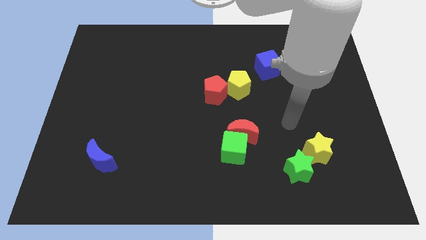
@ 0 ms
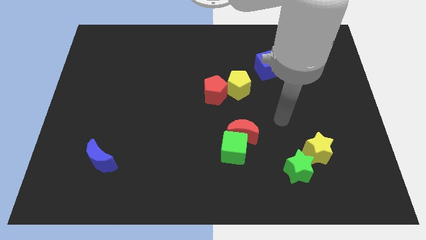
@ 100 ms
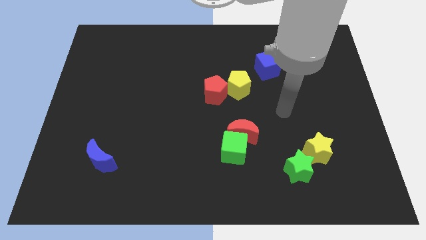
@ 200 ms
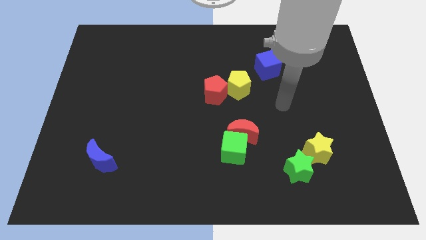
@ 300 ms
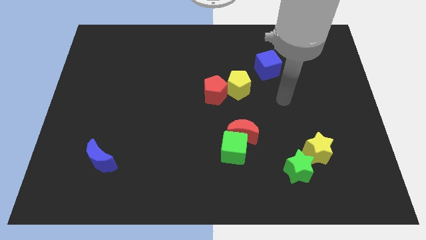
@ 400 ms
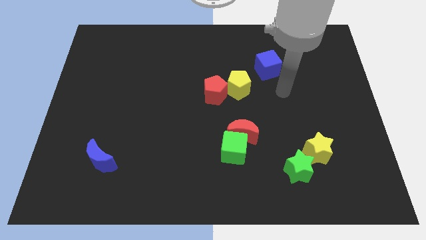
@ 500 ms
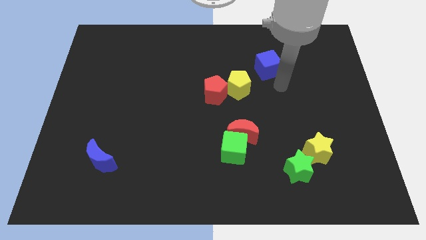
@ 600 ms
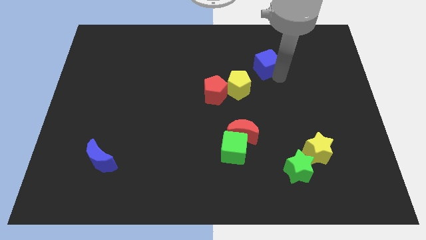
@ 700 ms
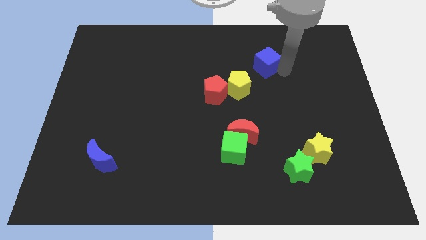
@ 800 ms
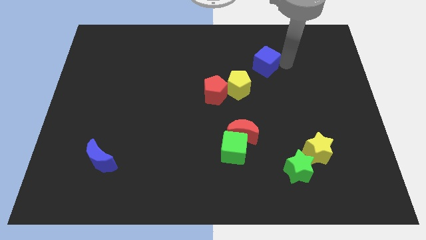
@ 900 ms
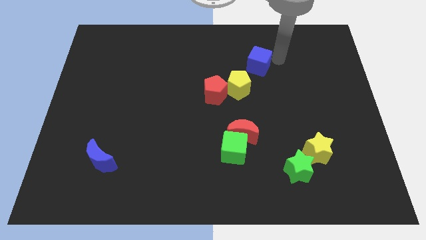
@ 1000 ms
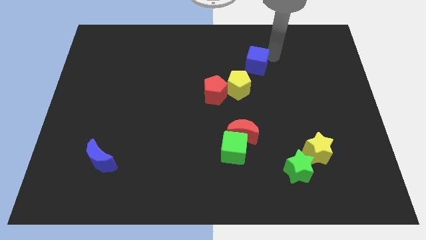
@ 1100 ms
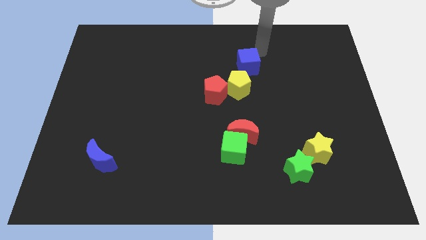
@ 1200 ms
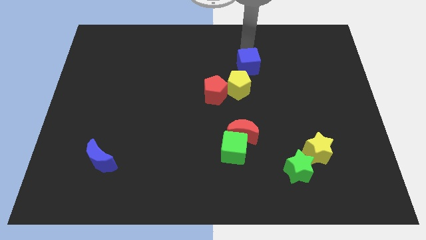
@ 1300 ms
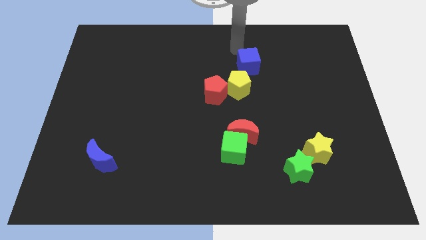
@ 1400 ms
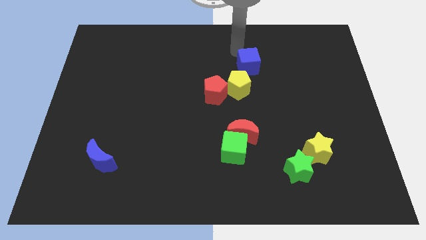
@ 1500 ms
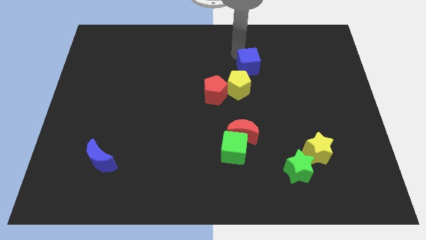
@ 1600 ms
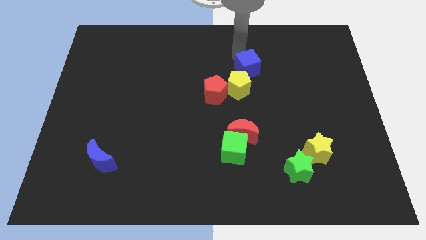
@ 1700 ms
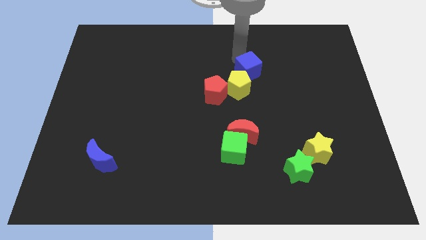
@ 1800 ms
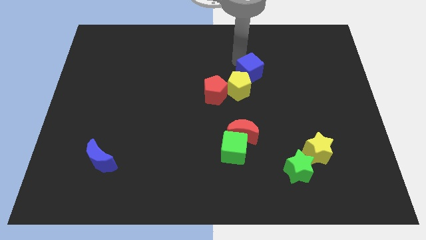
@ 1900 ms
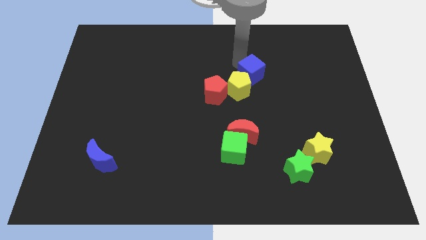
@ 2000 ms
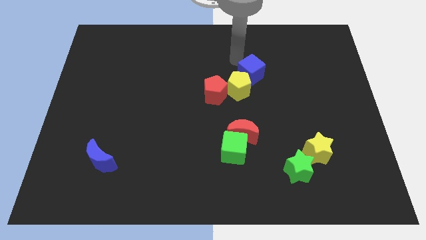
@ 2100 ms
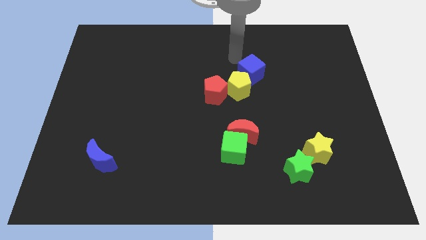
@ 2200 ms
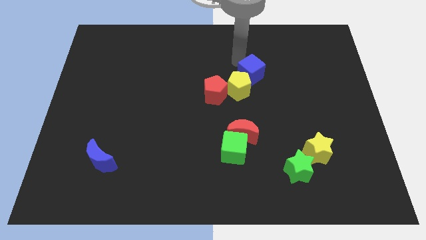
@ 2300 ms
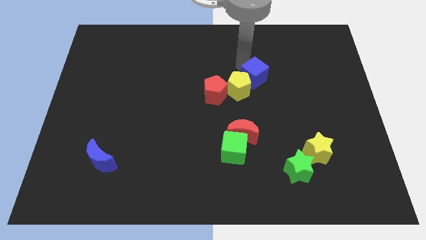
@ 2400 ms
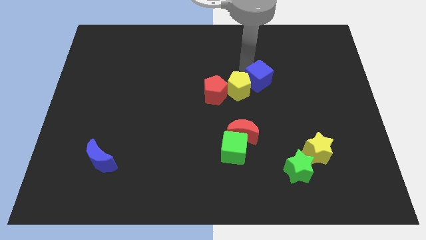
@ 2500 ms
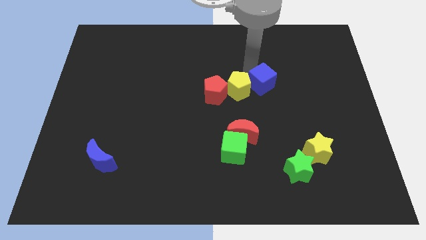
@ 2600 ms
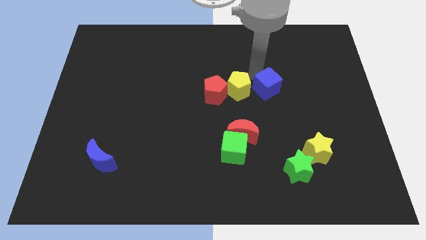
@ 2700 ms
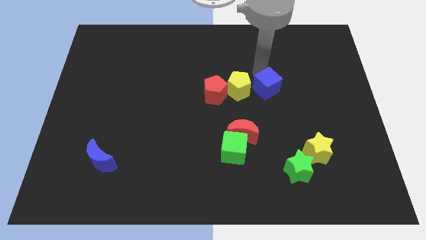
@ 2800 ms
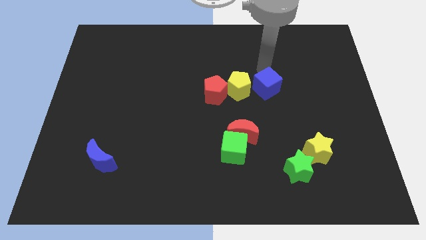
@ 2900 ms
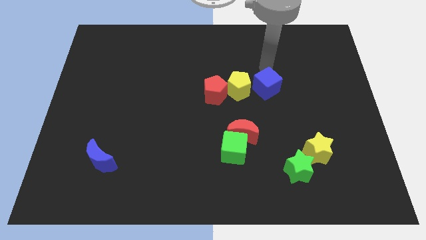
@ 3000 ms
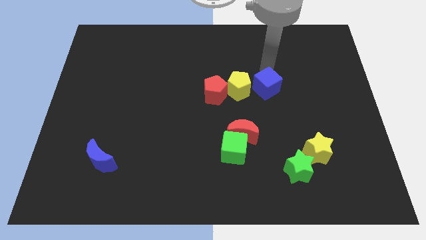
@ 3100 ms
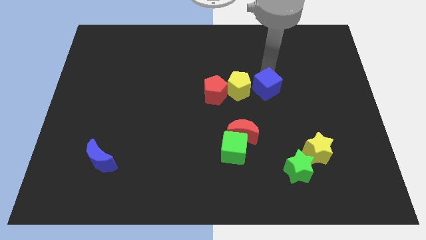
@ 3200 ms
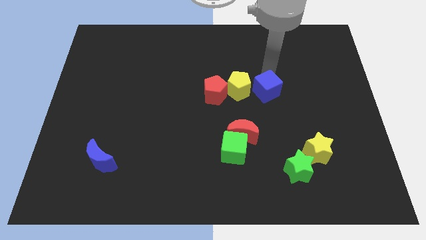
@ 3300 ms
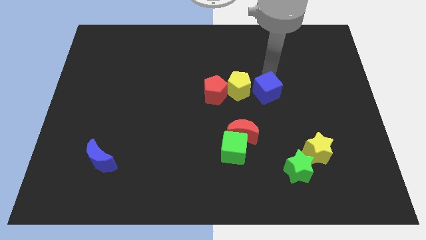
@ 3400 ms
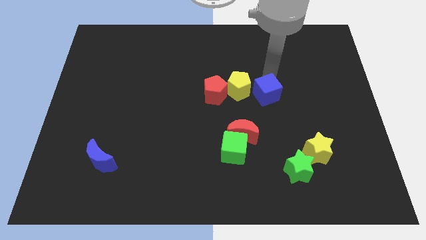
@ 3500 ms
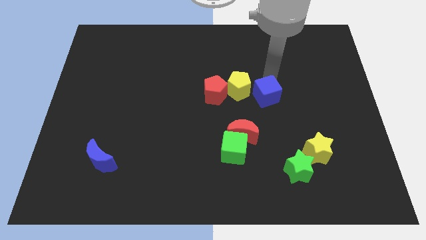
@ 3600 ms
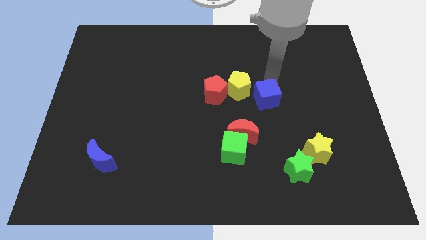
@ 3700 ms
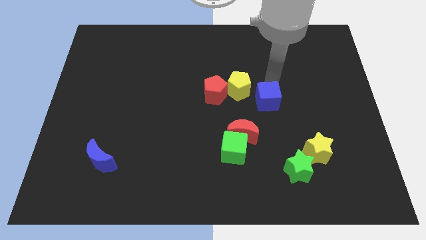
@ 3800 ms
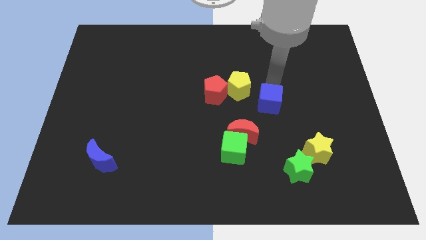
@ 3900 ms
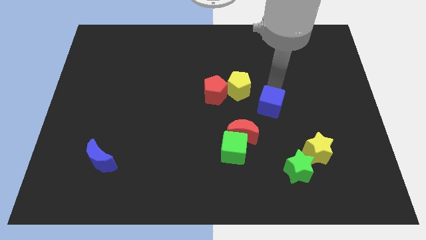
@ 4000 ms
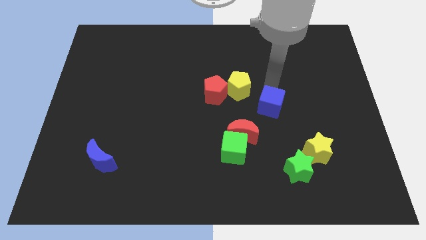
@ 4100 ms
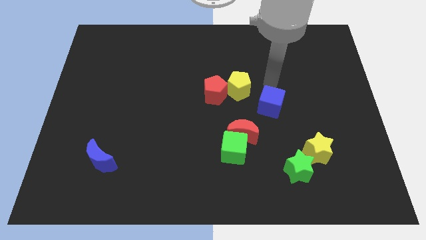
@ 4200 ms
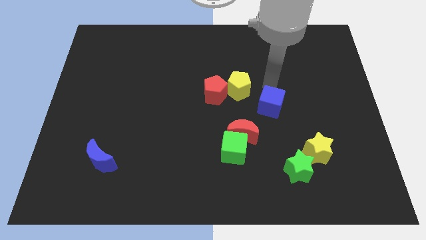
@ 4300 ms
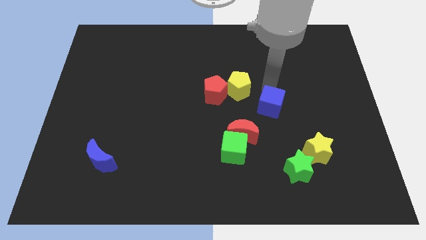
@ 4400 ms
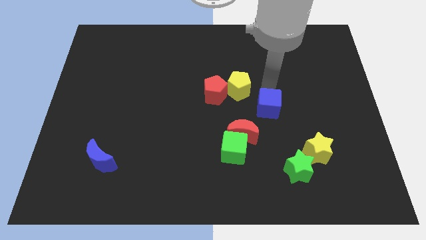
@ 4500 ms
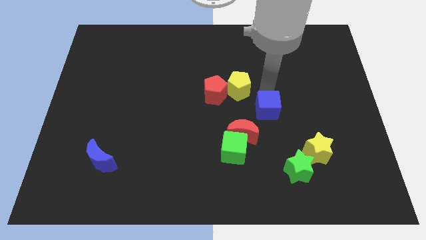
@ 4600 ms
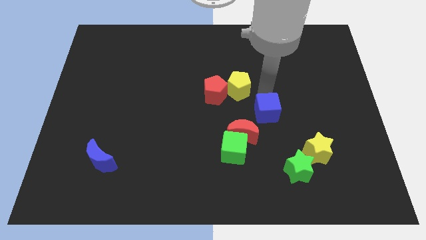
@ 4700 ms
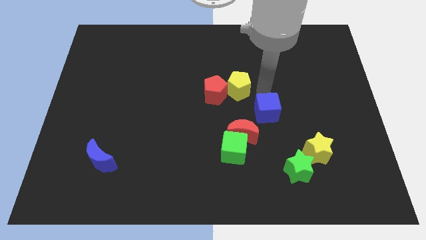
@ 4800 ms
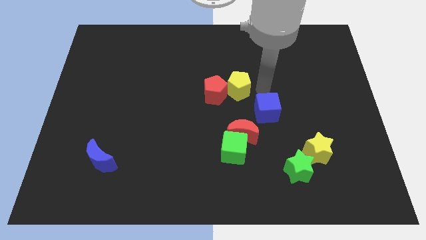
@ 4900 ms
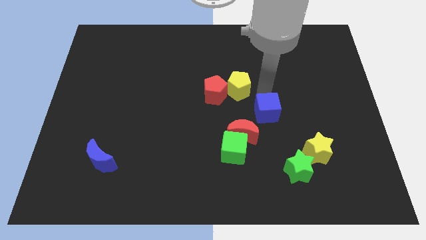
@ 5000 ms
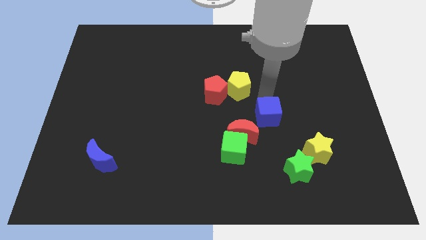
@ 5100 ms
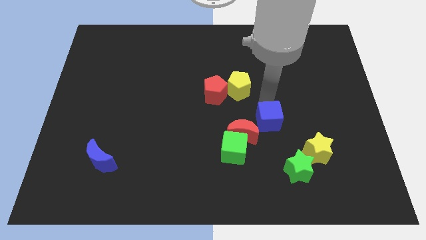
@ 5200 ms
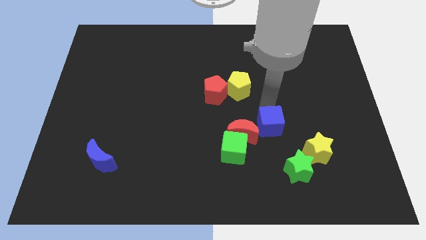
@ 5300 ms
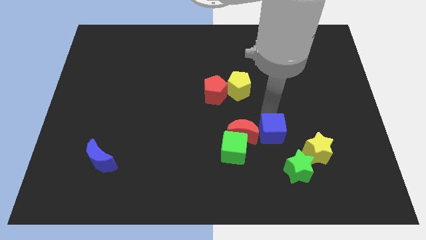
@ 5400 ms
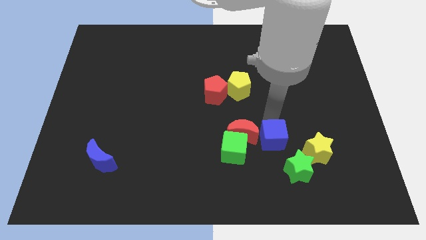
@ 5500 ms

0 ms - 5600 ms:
slide the blue cube down

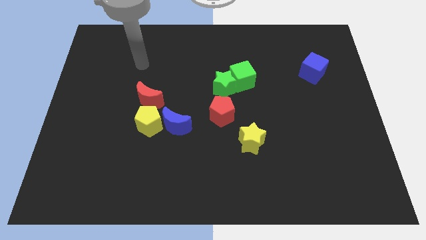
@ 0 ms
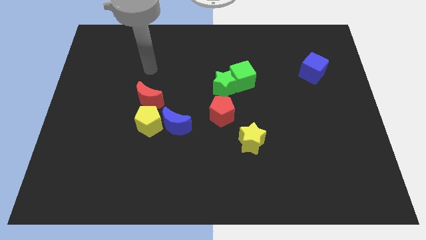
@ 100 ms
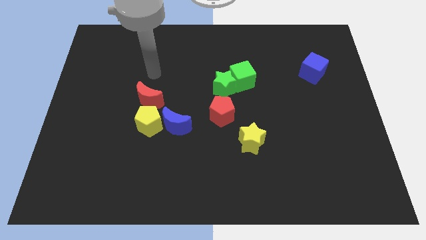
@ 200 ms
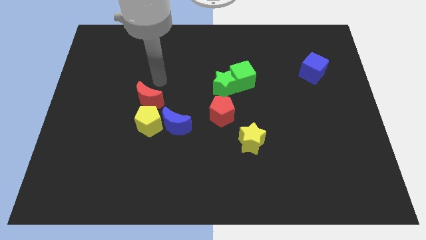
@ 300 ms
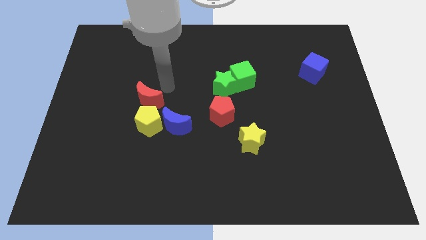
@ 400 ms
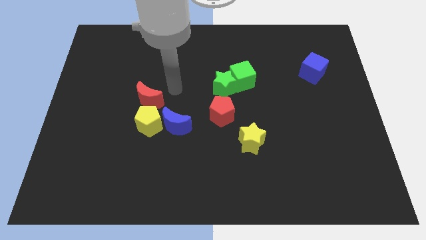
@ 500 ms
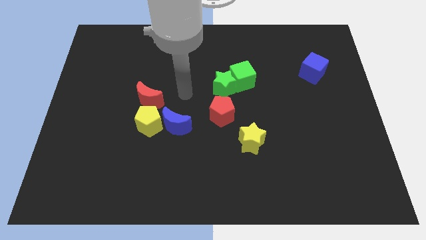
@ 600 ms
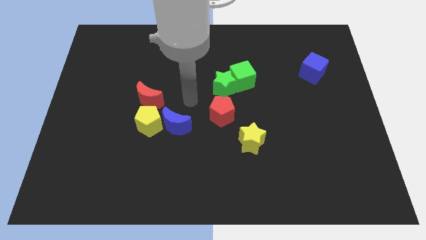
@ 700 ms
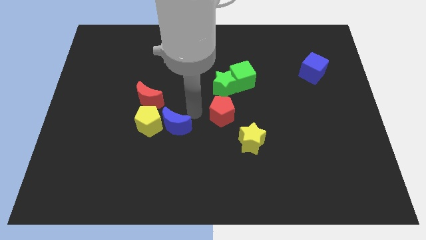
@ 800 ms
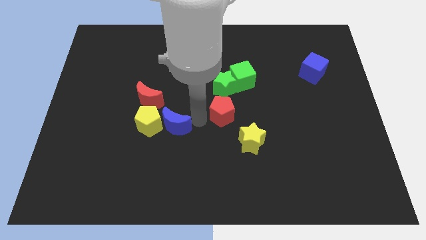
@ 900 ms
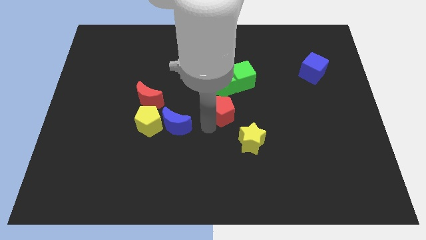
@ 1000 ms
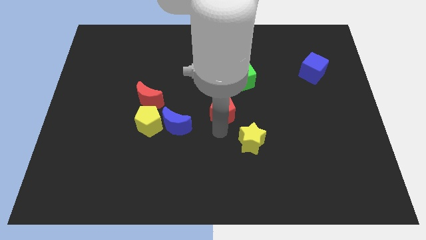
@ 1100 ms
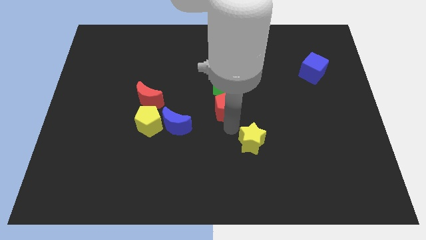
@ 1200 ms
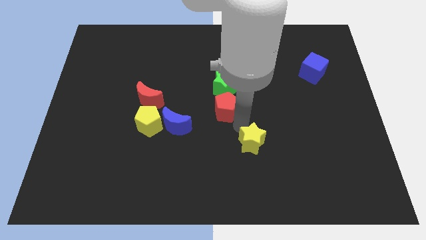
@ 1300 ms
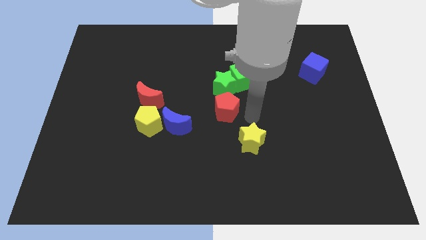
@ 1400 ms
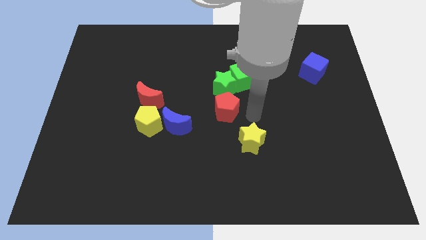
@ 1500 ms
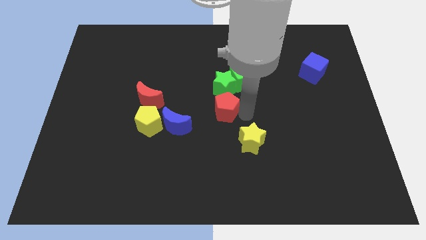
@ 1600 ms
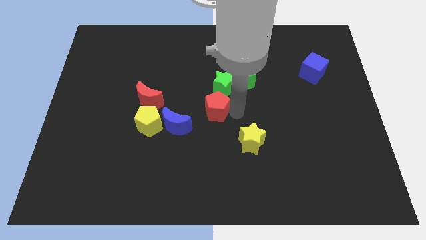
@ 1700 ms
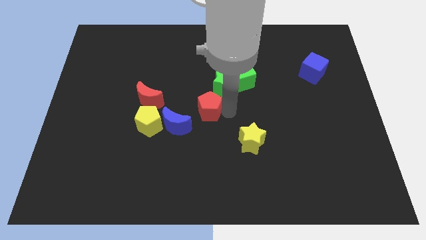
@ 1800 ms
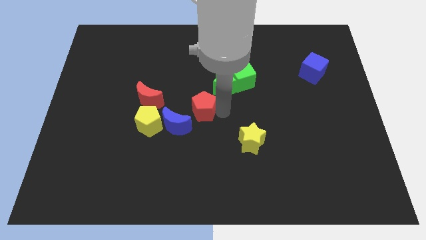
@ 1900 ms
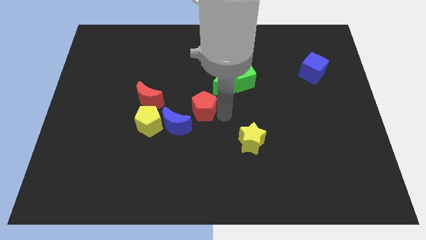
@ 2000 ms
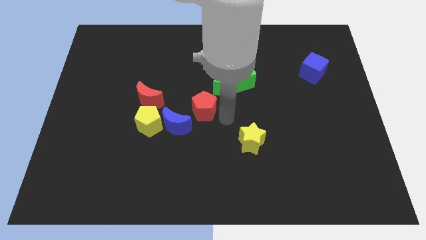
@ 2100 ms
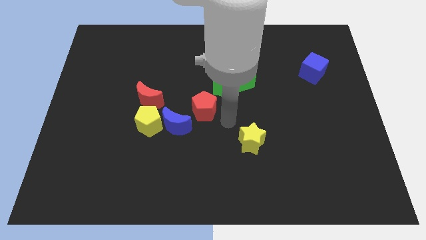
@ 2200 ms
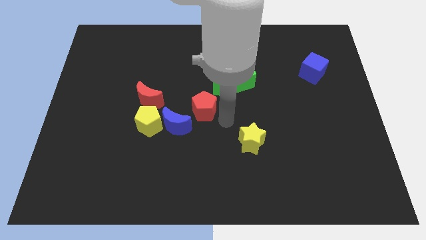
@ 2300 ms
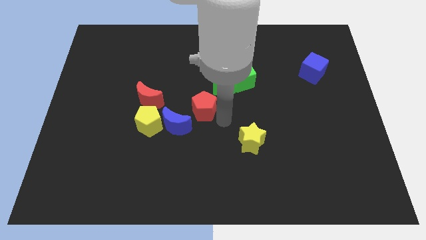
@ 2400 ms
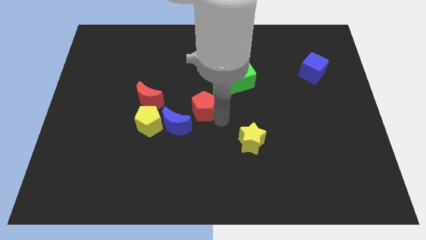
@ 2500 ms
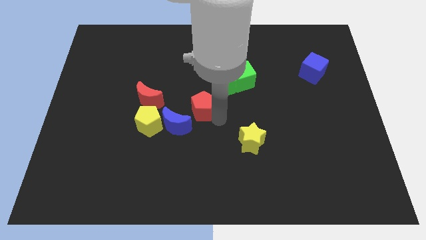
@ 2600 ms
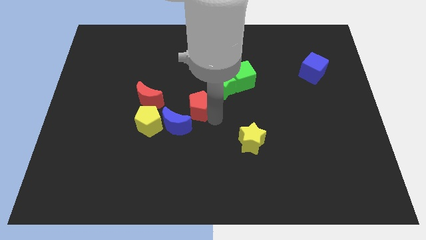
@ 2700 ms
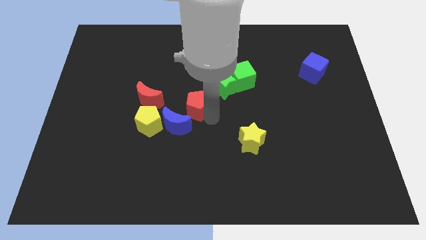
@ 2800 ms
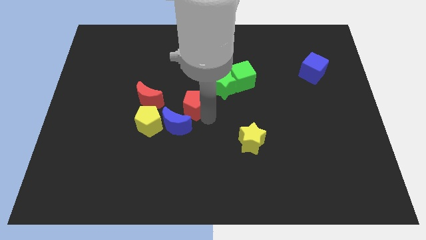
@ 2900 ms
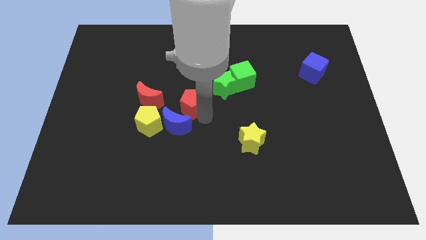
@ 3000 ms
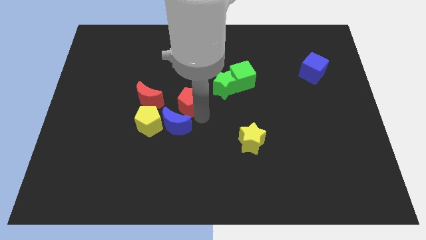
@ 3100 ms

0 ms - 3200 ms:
push the red pentagon diagonally up and to the left a bit
